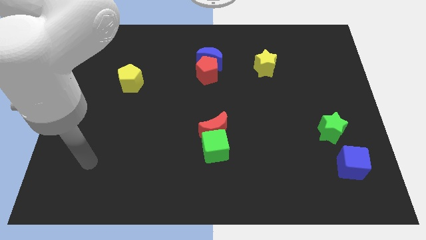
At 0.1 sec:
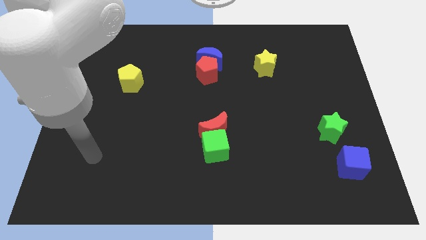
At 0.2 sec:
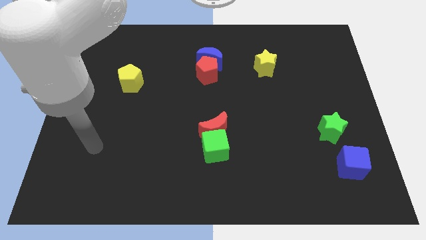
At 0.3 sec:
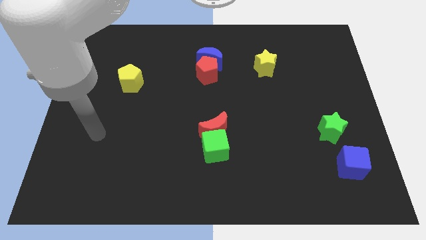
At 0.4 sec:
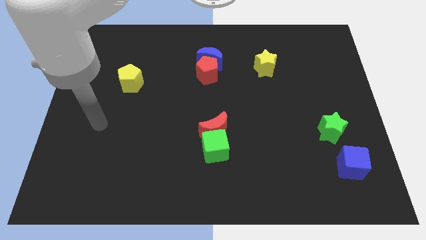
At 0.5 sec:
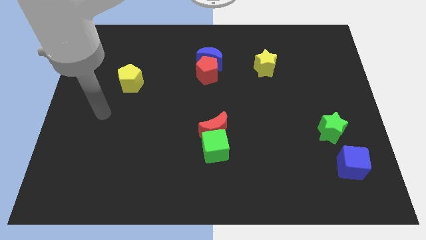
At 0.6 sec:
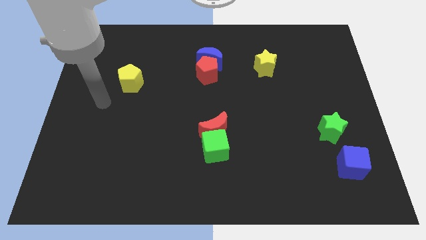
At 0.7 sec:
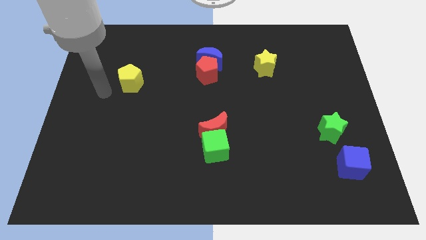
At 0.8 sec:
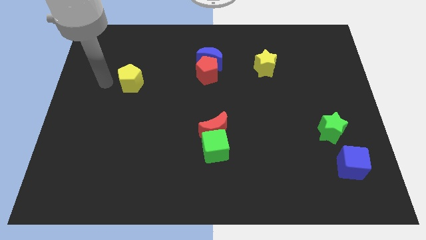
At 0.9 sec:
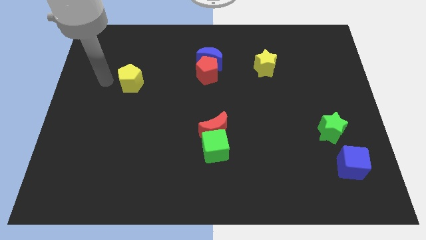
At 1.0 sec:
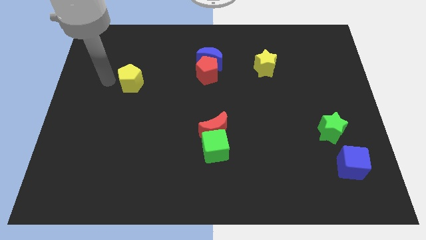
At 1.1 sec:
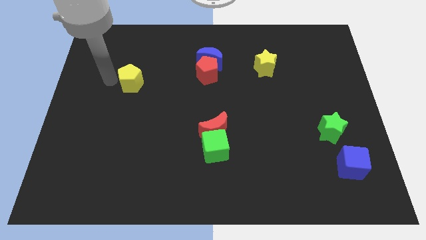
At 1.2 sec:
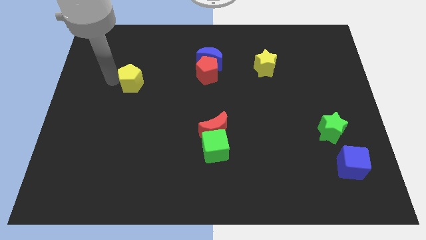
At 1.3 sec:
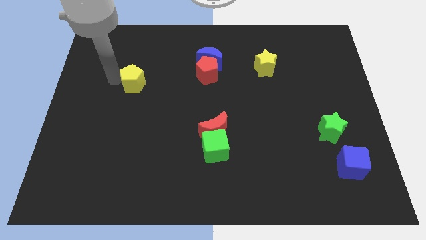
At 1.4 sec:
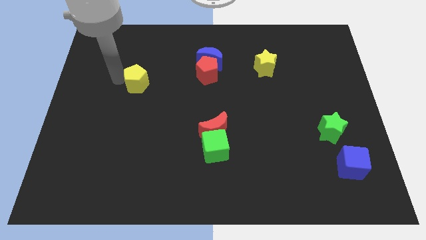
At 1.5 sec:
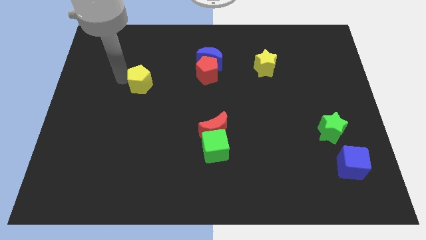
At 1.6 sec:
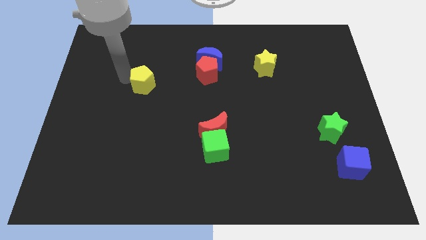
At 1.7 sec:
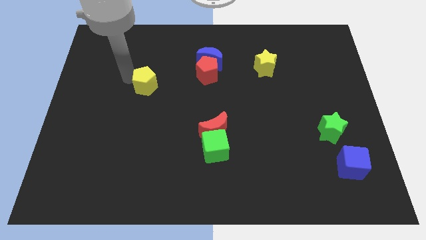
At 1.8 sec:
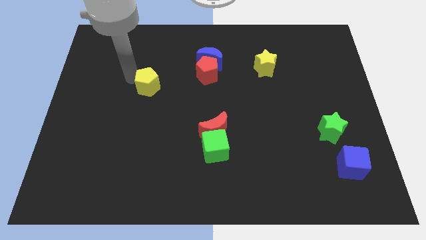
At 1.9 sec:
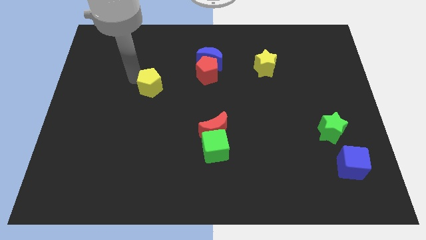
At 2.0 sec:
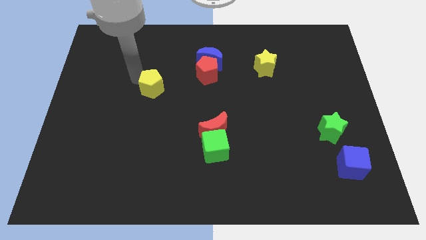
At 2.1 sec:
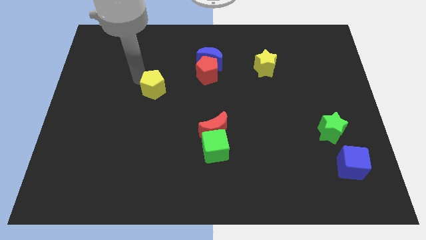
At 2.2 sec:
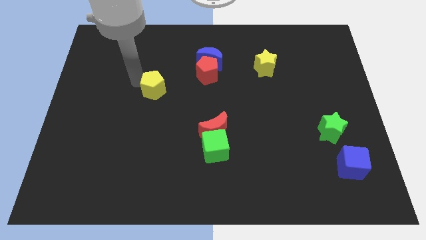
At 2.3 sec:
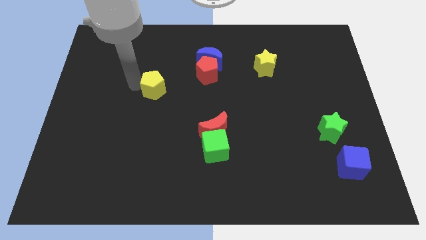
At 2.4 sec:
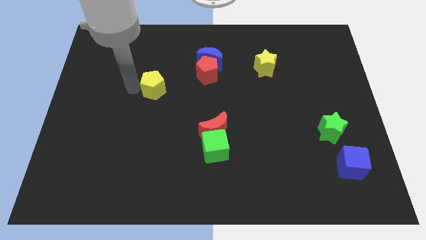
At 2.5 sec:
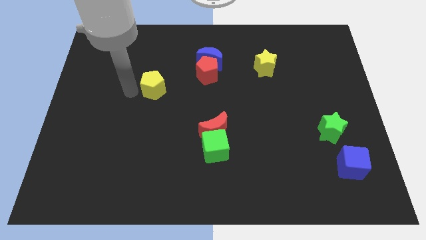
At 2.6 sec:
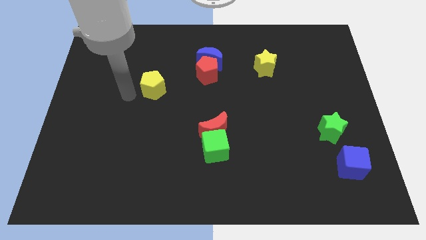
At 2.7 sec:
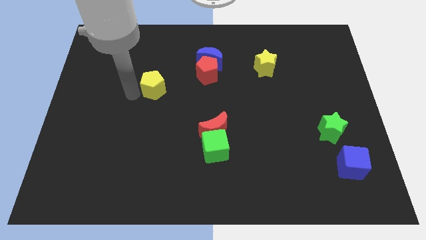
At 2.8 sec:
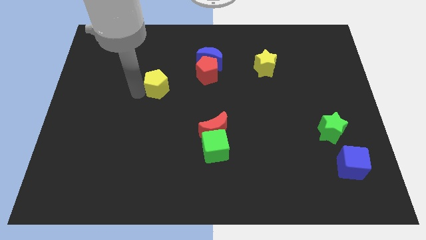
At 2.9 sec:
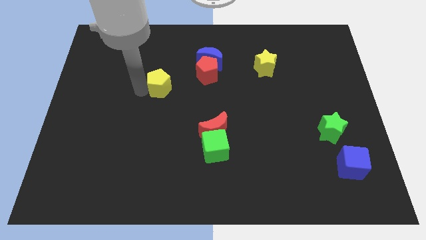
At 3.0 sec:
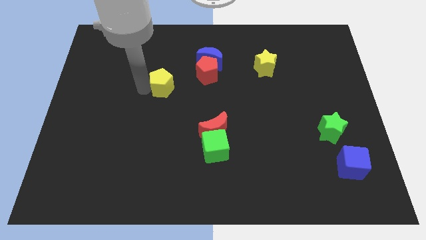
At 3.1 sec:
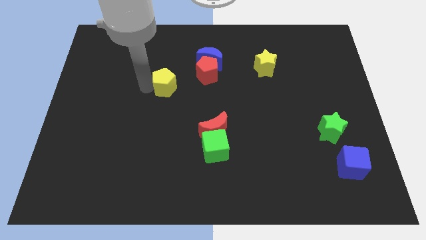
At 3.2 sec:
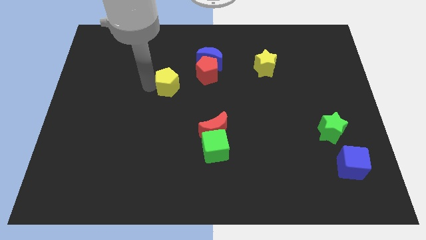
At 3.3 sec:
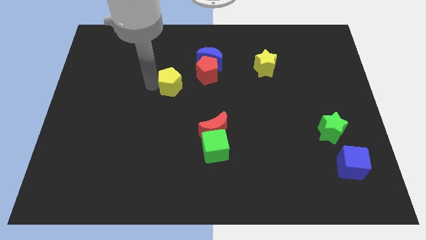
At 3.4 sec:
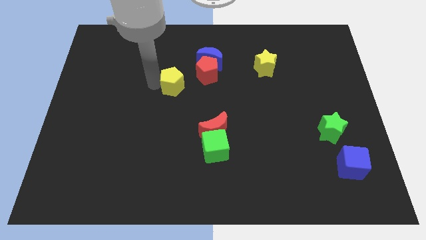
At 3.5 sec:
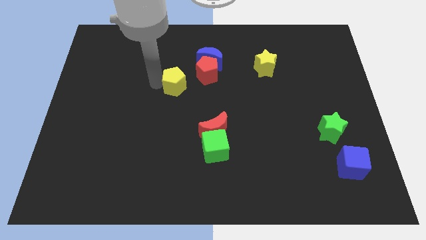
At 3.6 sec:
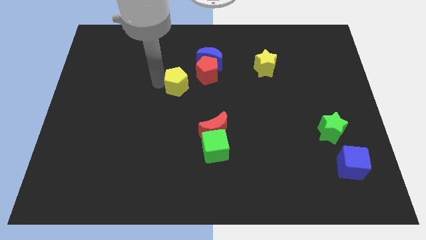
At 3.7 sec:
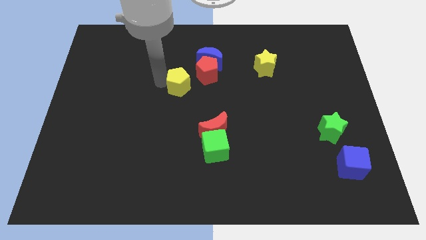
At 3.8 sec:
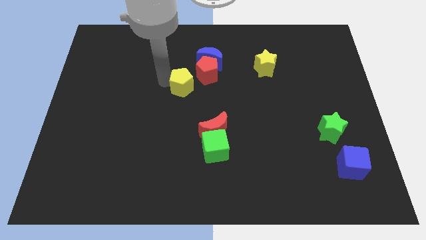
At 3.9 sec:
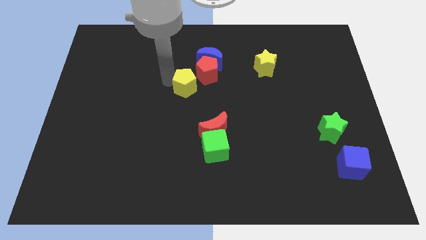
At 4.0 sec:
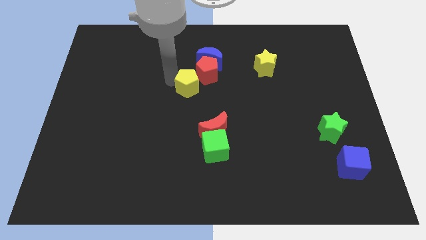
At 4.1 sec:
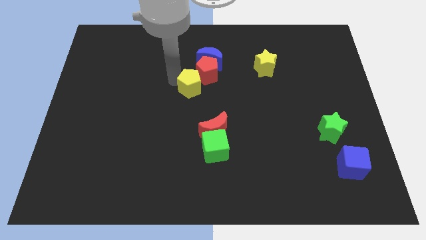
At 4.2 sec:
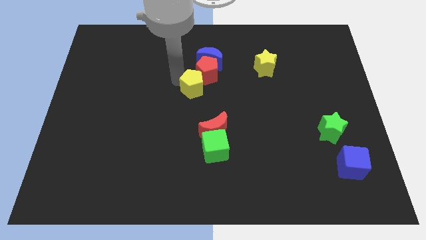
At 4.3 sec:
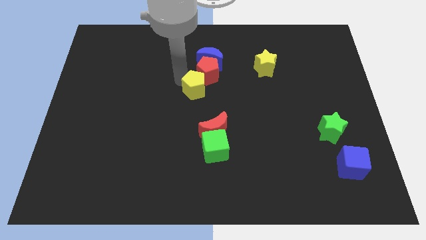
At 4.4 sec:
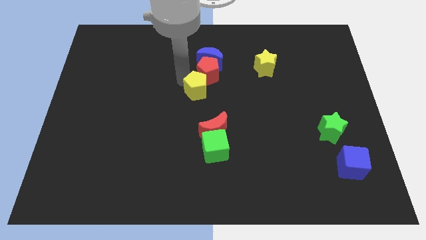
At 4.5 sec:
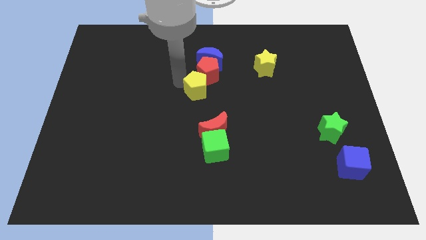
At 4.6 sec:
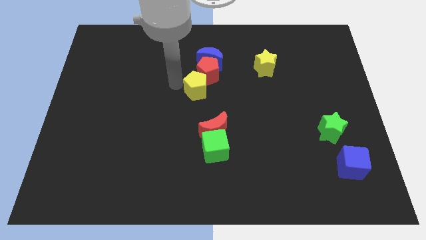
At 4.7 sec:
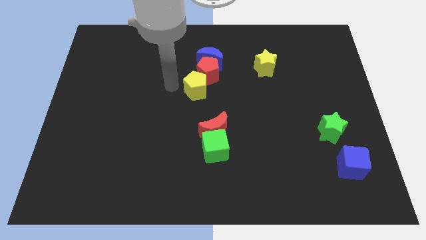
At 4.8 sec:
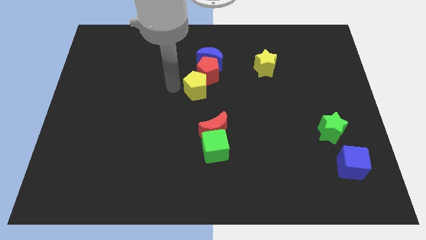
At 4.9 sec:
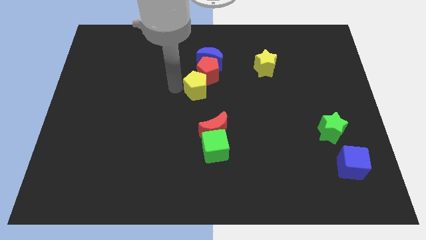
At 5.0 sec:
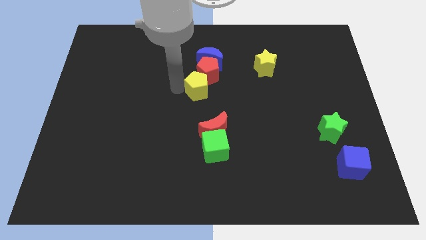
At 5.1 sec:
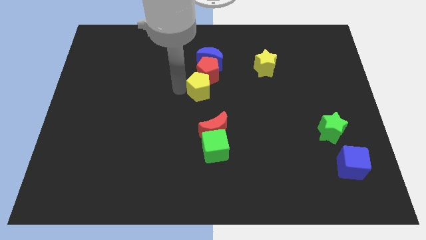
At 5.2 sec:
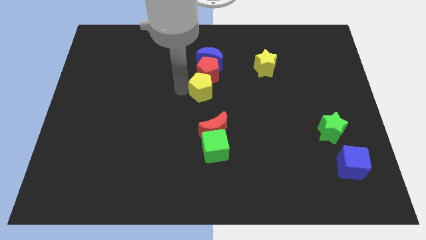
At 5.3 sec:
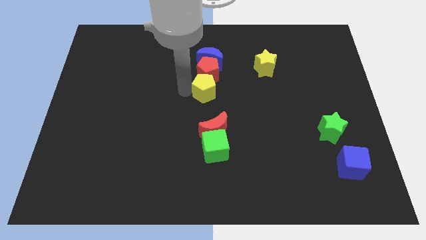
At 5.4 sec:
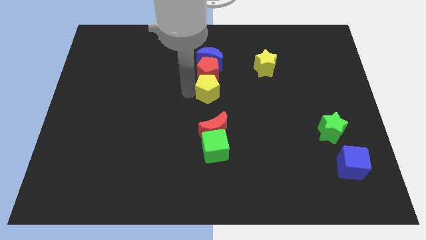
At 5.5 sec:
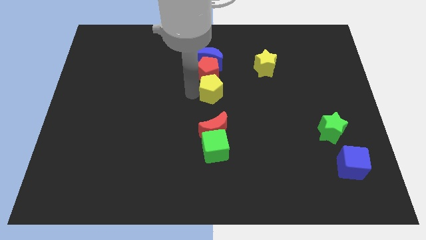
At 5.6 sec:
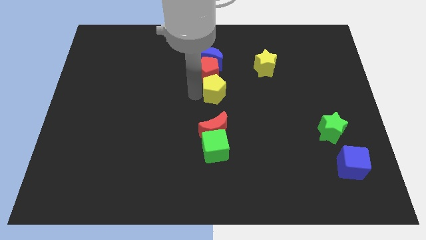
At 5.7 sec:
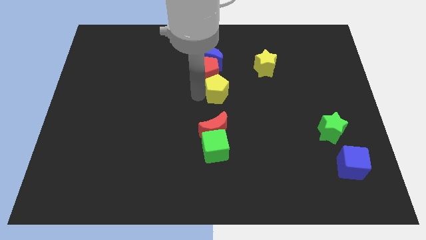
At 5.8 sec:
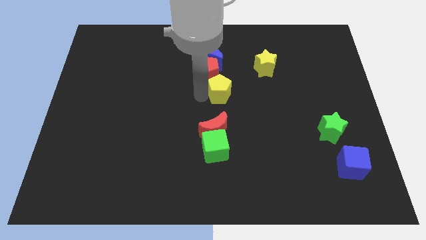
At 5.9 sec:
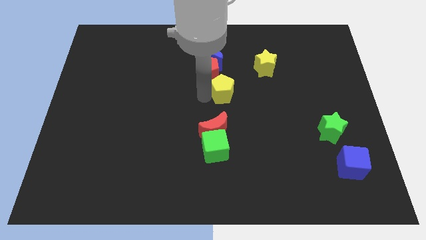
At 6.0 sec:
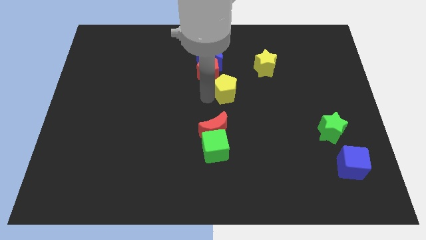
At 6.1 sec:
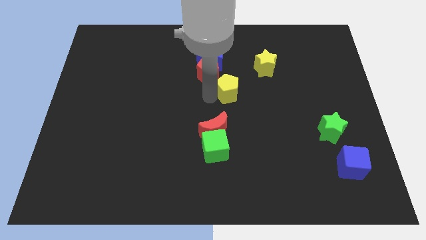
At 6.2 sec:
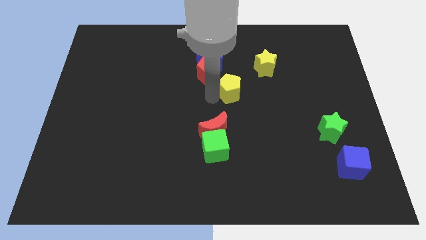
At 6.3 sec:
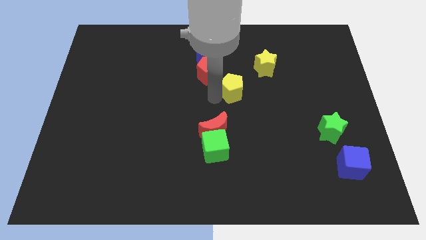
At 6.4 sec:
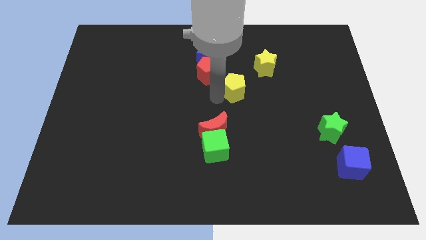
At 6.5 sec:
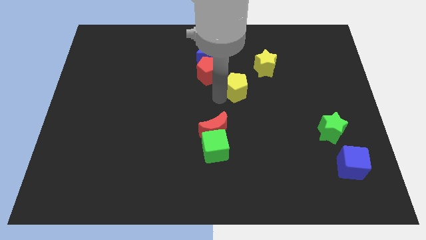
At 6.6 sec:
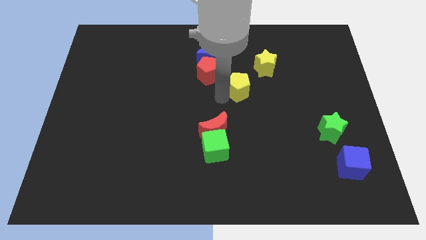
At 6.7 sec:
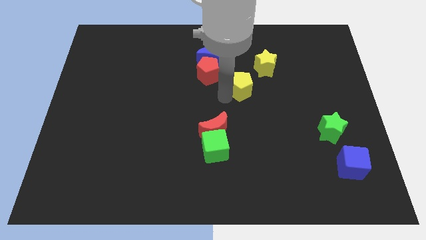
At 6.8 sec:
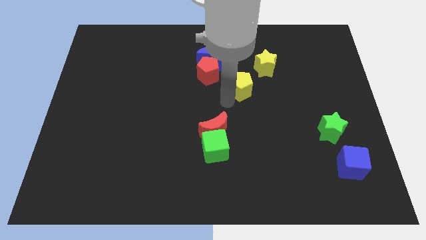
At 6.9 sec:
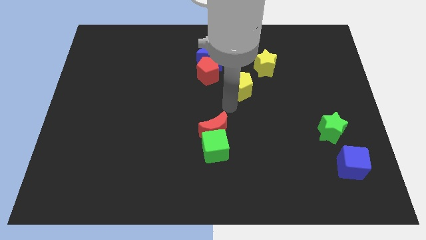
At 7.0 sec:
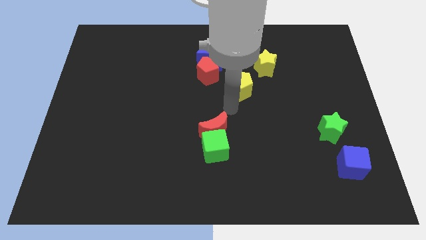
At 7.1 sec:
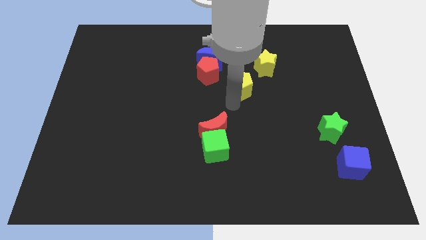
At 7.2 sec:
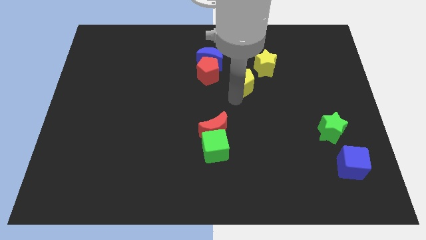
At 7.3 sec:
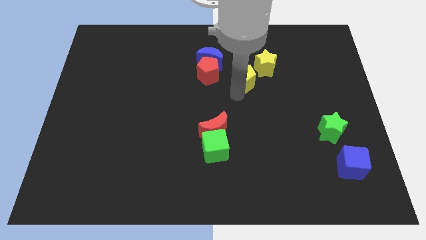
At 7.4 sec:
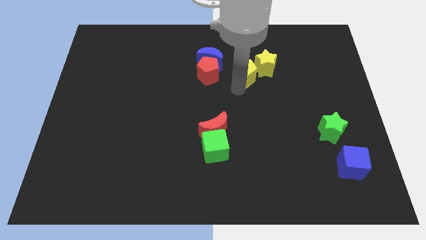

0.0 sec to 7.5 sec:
slide the yellow pentagon to the yellow star
